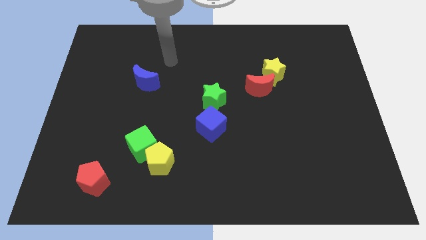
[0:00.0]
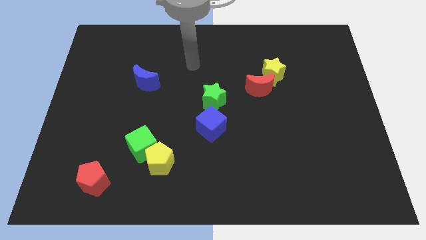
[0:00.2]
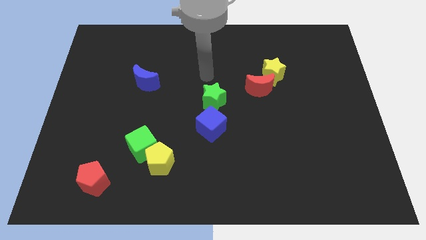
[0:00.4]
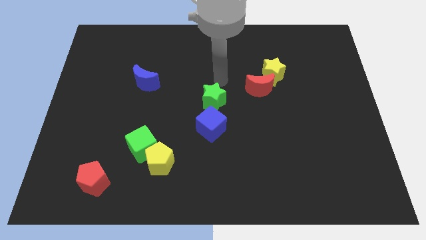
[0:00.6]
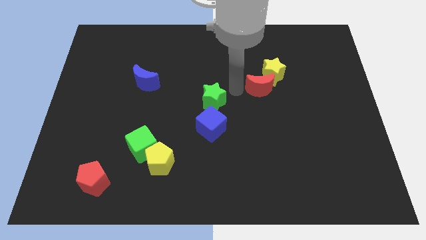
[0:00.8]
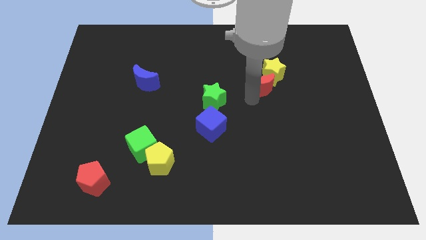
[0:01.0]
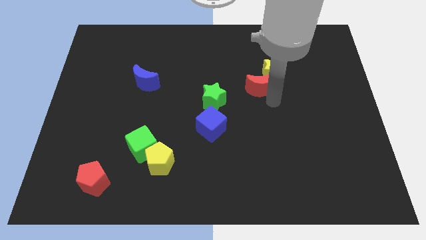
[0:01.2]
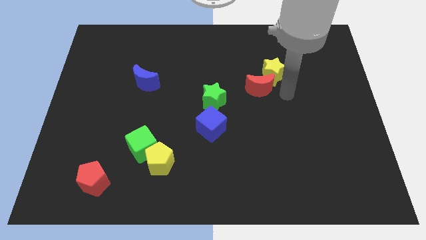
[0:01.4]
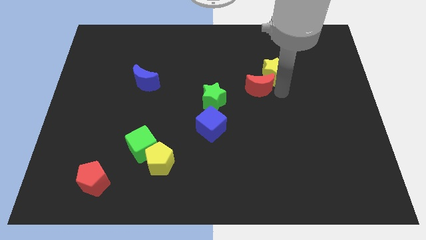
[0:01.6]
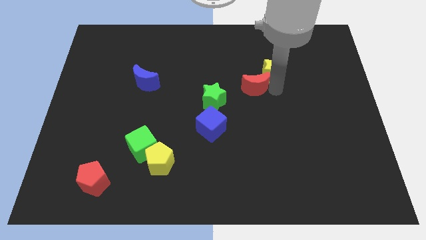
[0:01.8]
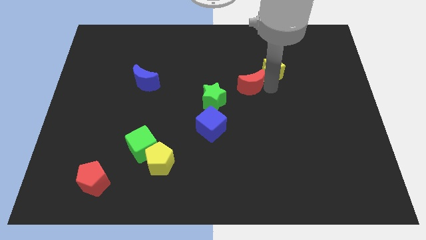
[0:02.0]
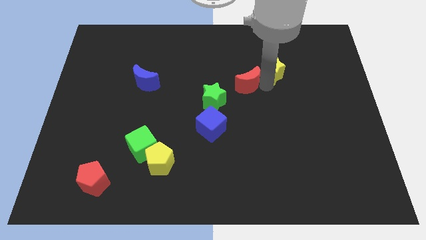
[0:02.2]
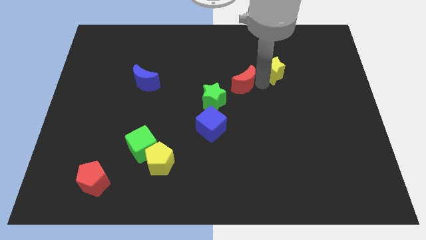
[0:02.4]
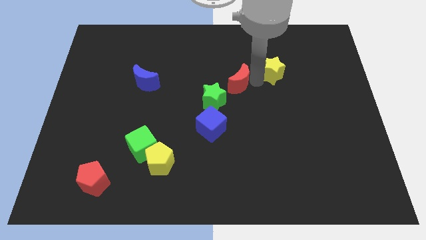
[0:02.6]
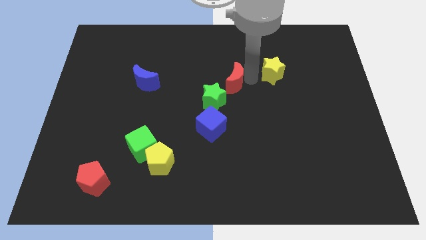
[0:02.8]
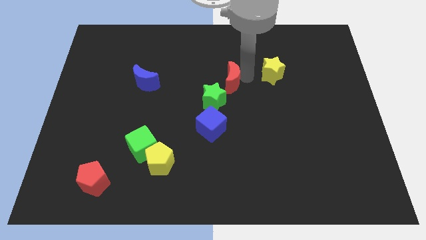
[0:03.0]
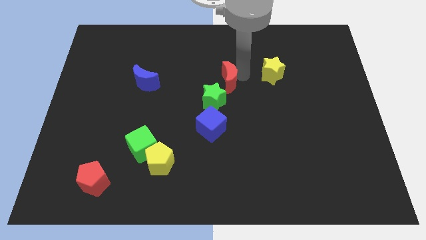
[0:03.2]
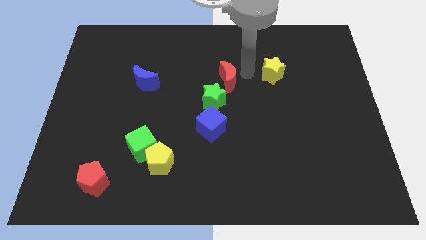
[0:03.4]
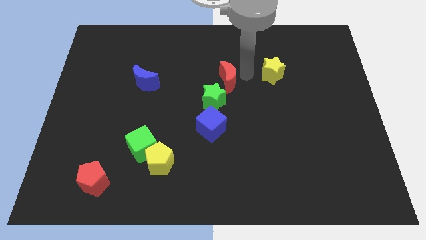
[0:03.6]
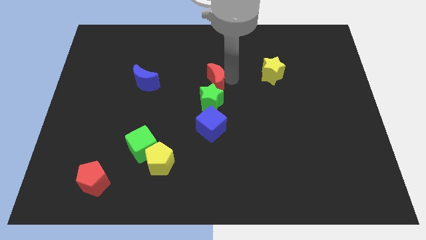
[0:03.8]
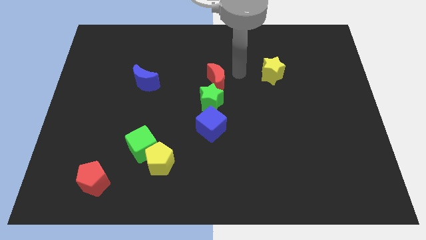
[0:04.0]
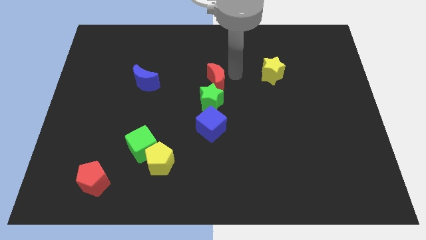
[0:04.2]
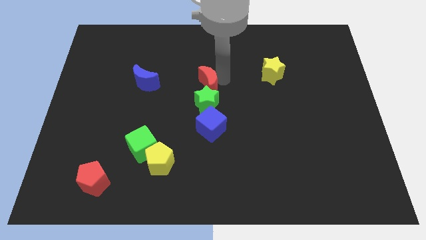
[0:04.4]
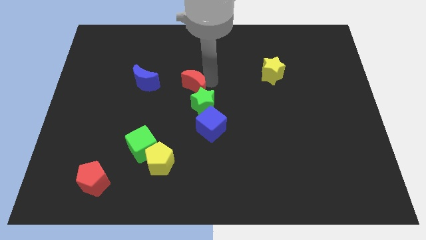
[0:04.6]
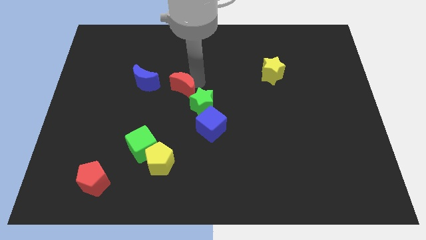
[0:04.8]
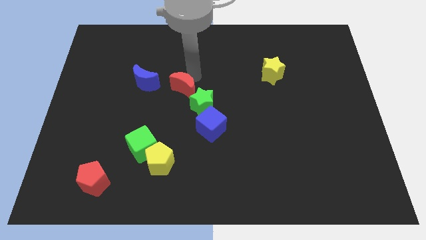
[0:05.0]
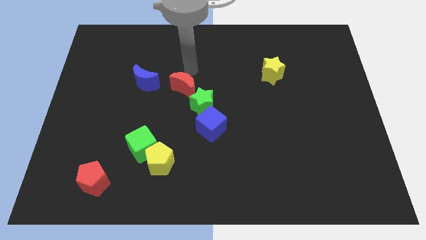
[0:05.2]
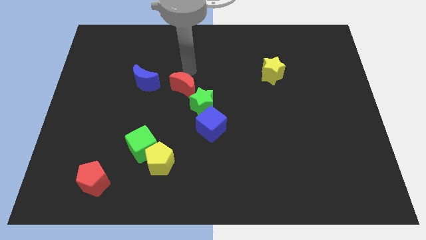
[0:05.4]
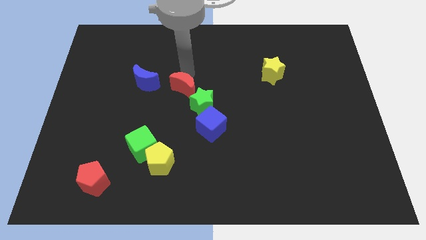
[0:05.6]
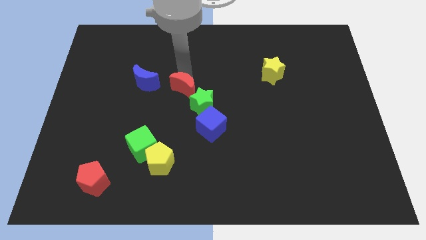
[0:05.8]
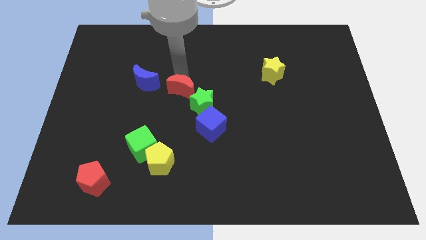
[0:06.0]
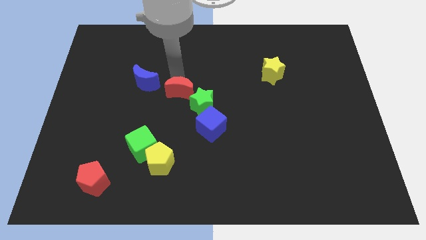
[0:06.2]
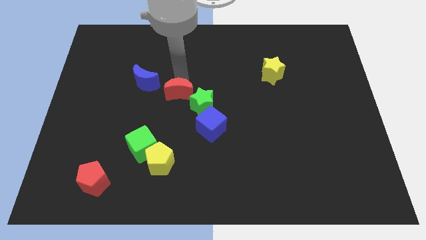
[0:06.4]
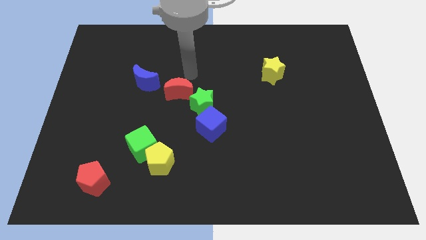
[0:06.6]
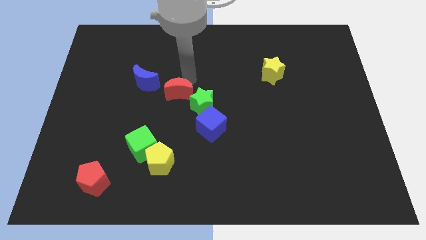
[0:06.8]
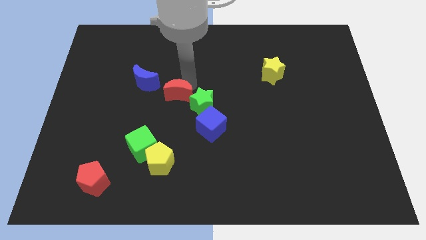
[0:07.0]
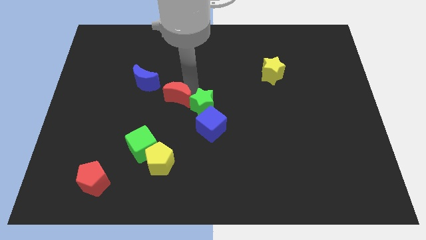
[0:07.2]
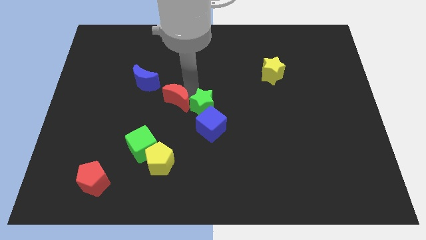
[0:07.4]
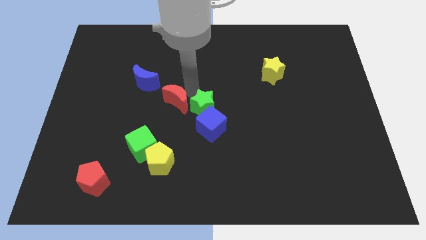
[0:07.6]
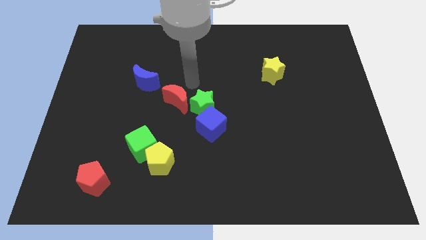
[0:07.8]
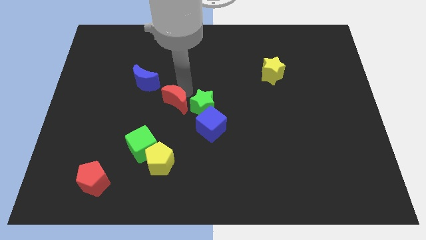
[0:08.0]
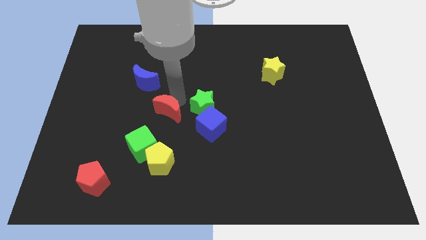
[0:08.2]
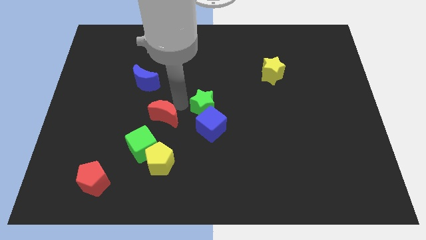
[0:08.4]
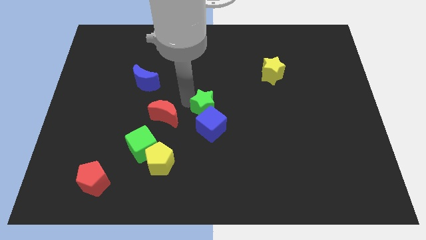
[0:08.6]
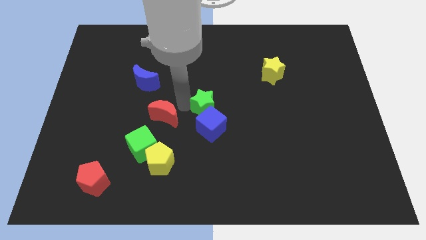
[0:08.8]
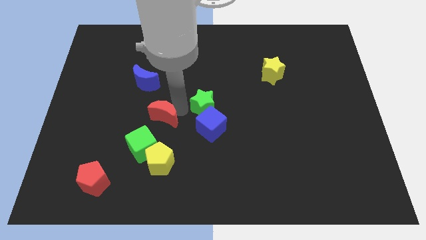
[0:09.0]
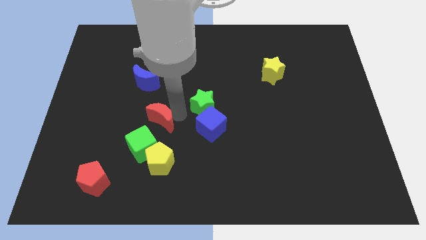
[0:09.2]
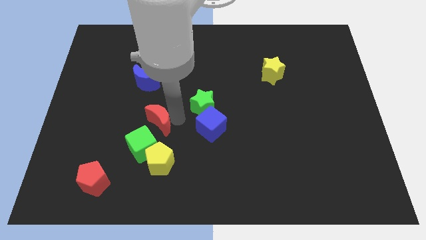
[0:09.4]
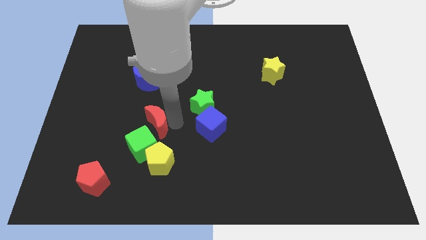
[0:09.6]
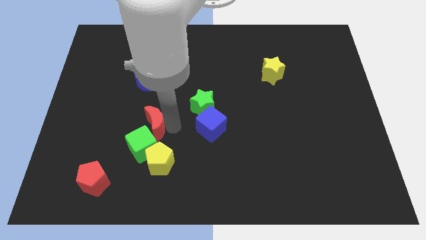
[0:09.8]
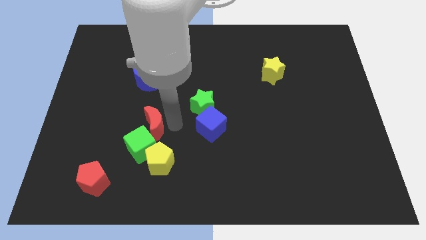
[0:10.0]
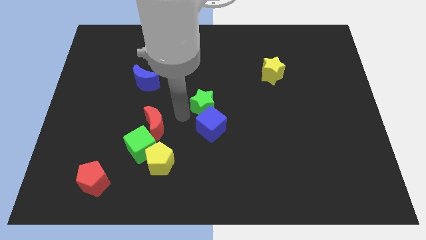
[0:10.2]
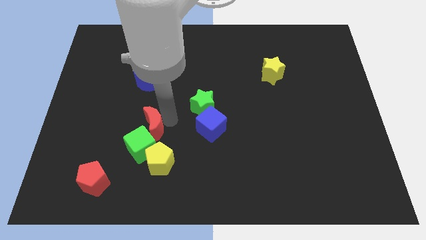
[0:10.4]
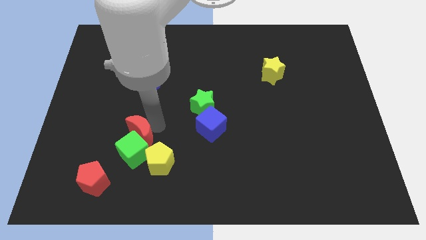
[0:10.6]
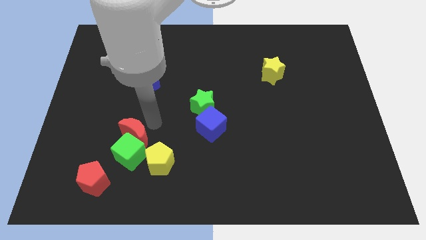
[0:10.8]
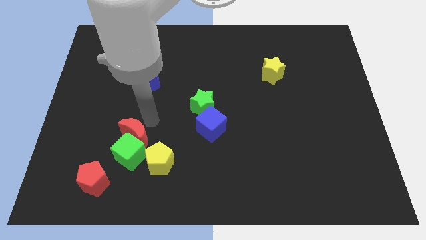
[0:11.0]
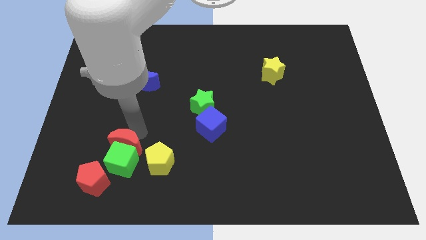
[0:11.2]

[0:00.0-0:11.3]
push the red moon left of the yellow pentagon

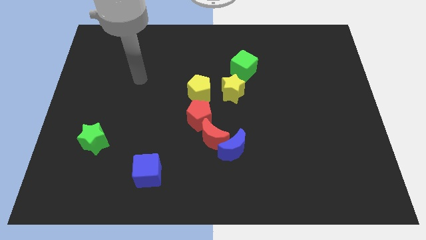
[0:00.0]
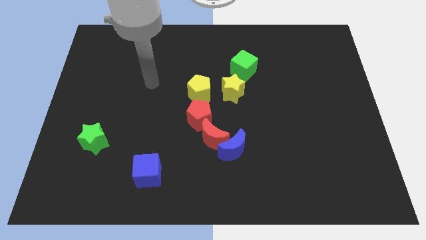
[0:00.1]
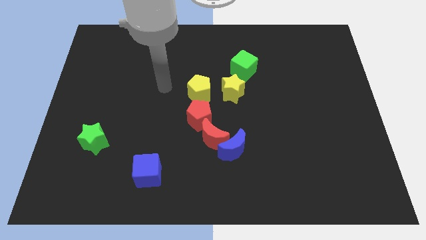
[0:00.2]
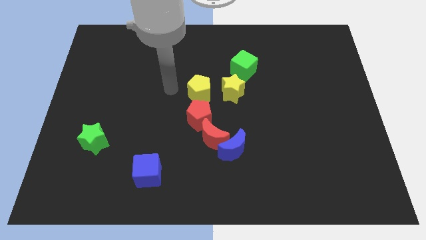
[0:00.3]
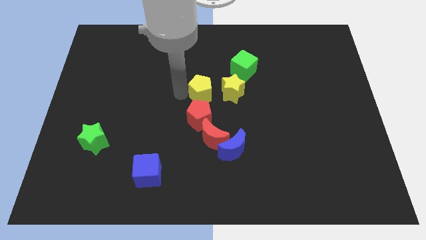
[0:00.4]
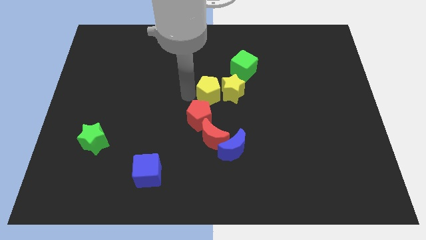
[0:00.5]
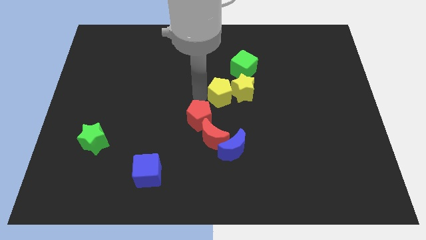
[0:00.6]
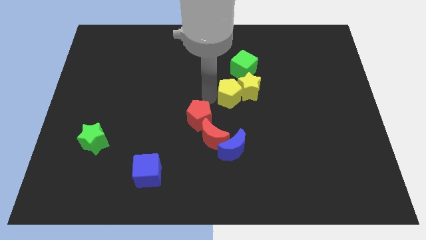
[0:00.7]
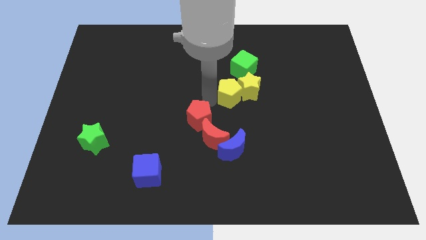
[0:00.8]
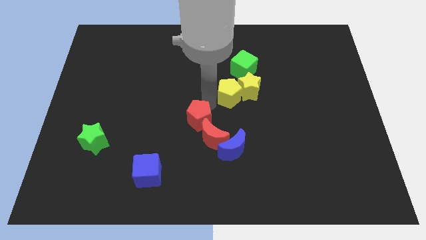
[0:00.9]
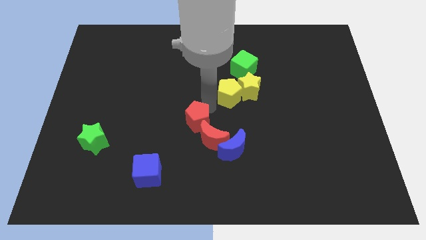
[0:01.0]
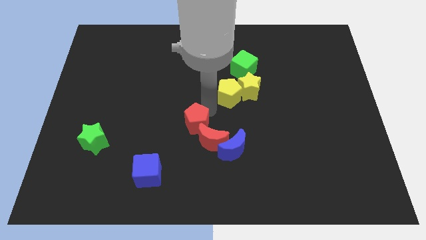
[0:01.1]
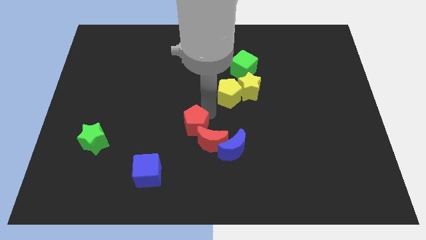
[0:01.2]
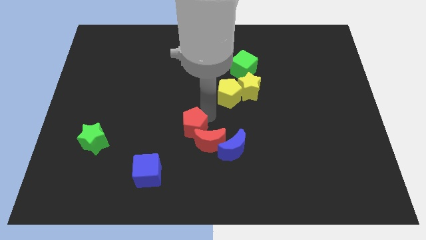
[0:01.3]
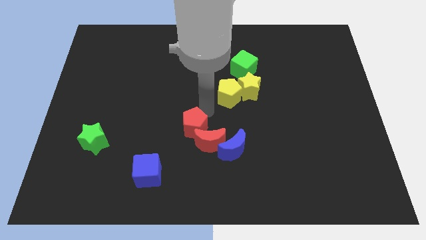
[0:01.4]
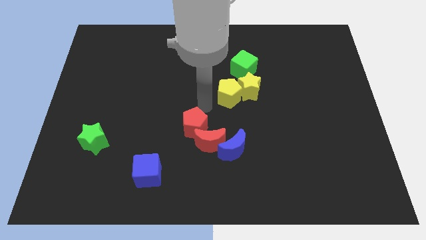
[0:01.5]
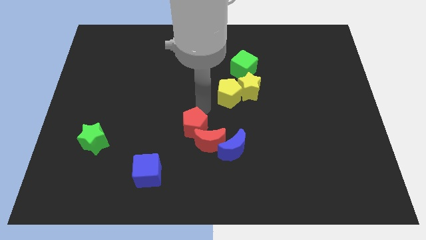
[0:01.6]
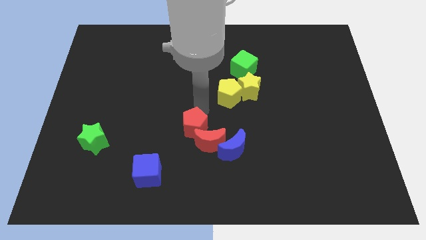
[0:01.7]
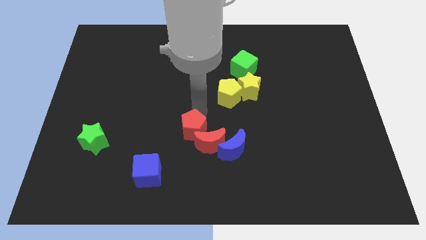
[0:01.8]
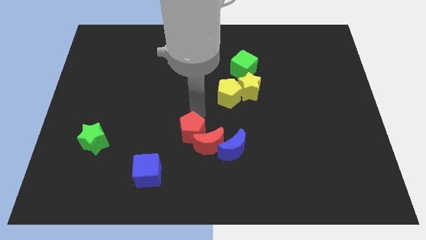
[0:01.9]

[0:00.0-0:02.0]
push the red pentagon to the left of the blue moon
